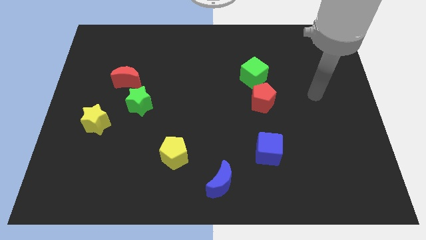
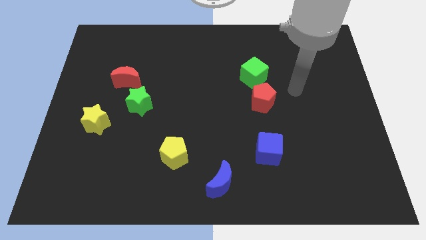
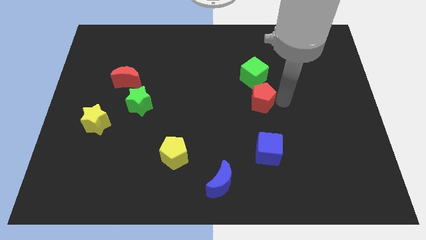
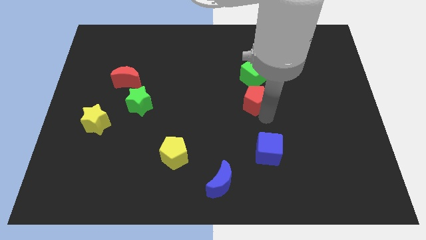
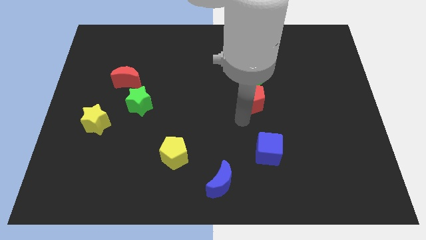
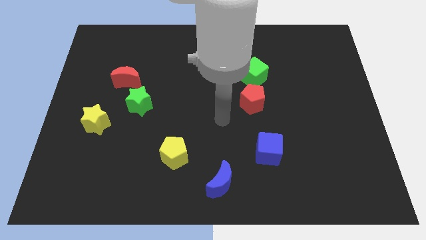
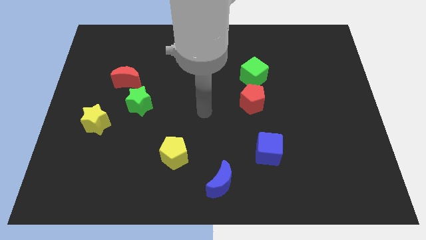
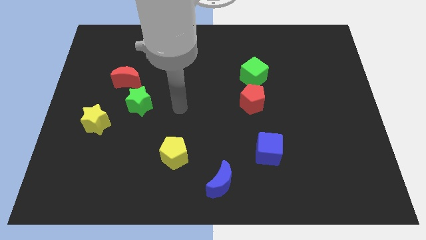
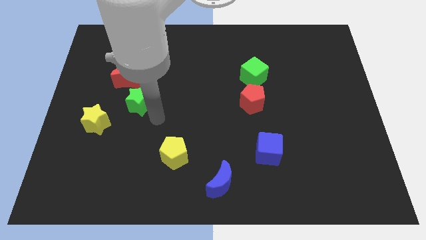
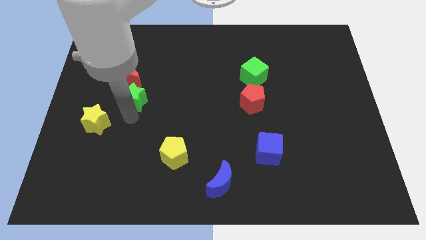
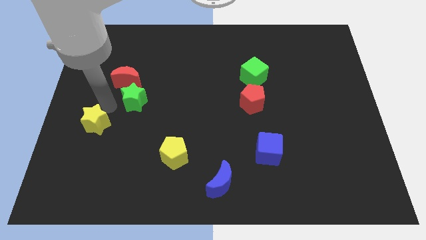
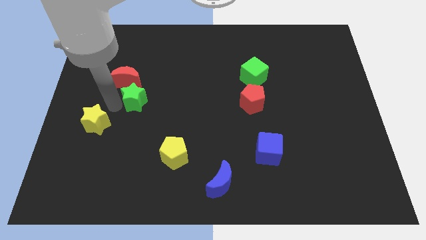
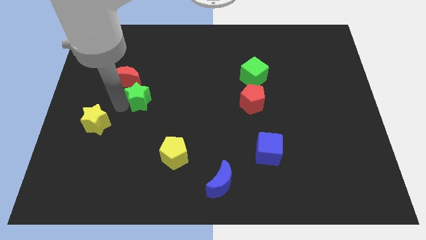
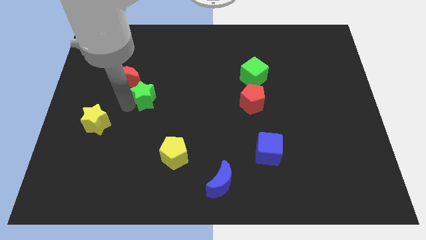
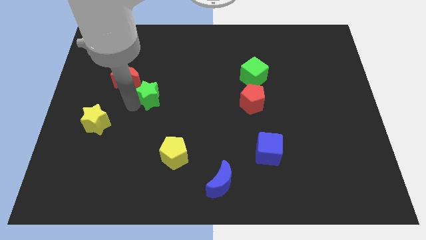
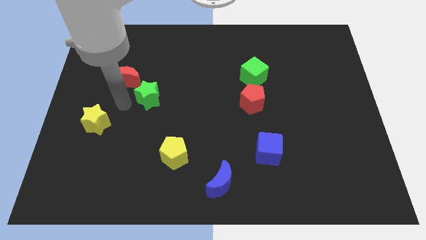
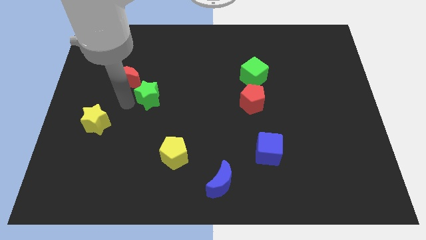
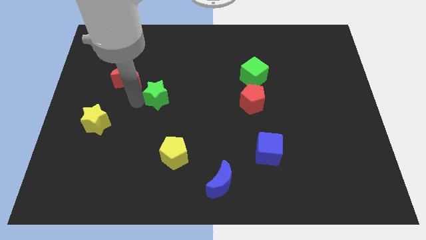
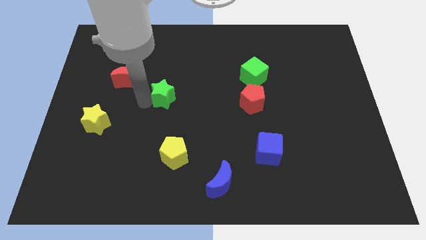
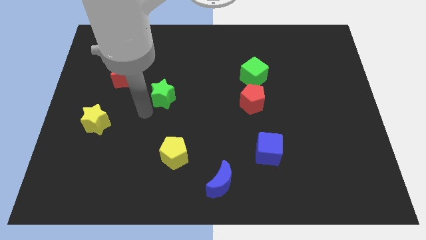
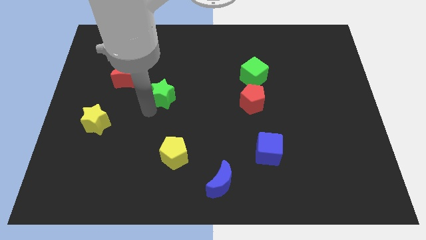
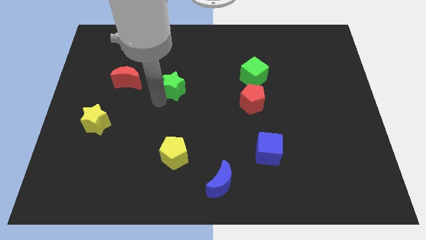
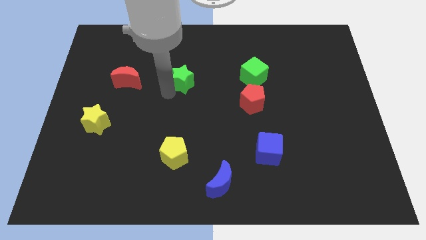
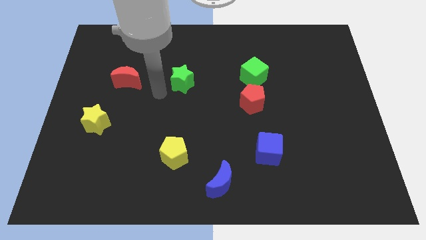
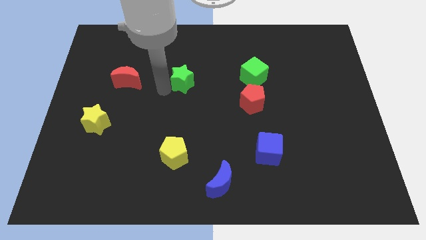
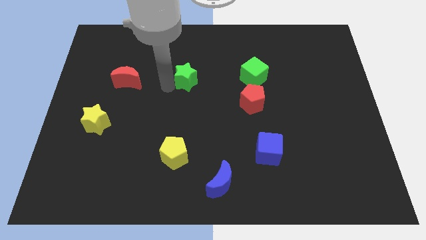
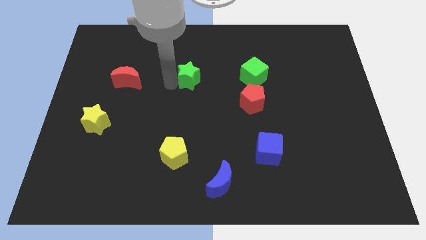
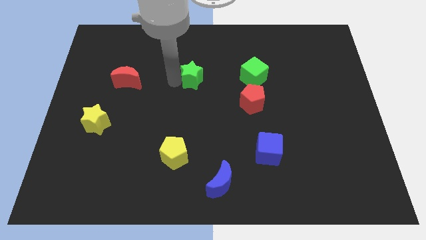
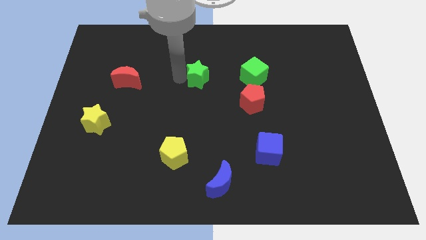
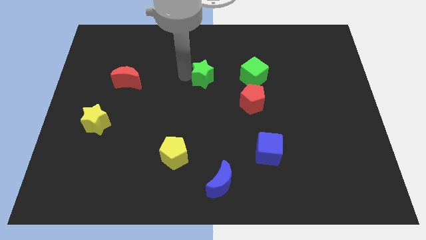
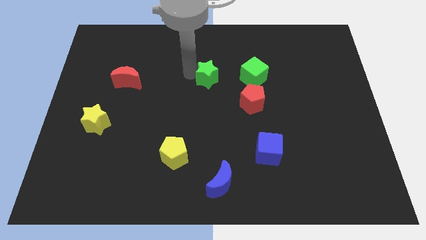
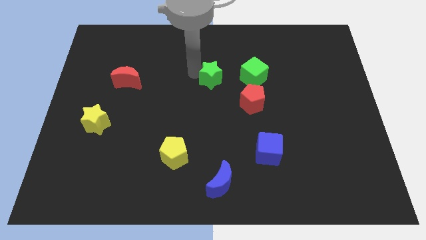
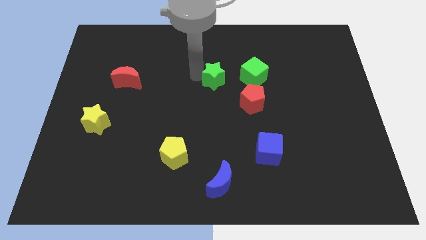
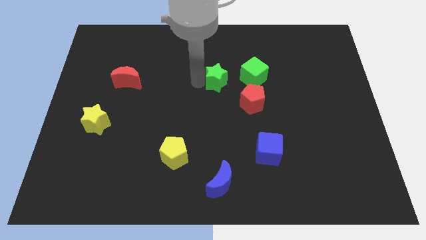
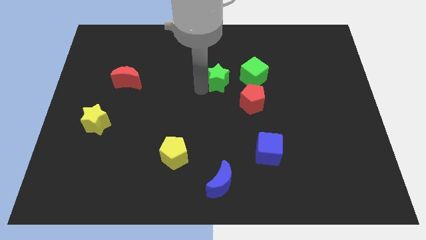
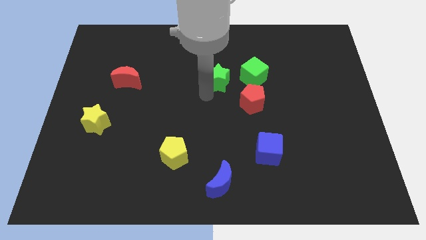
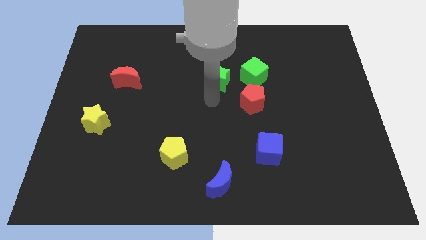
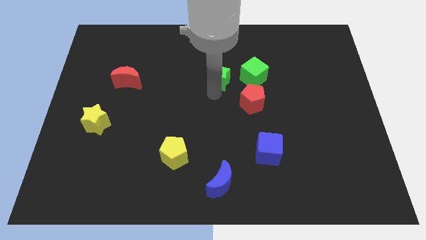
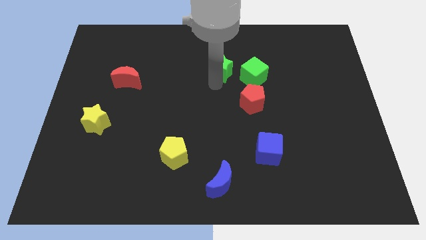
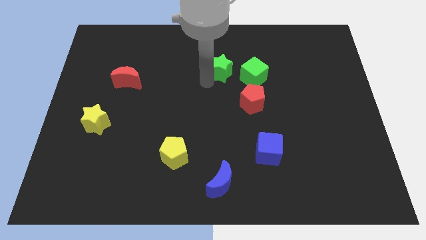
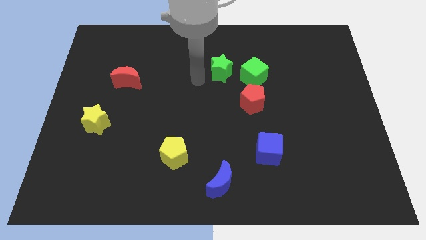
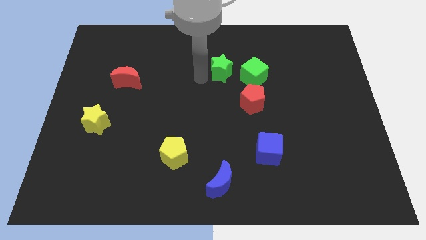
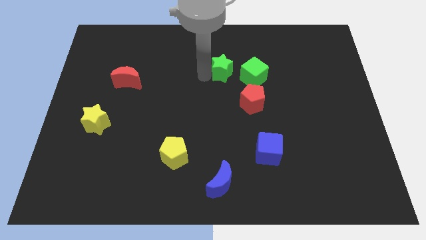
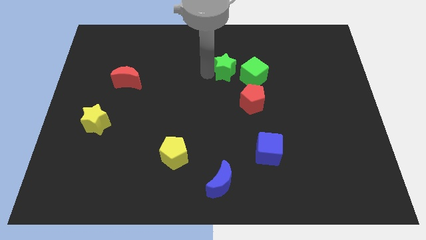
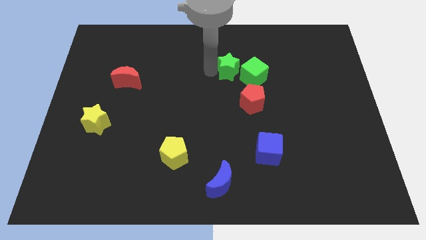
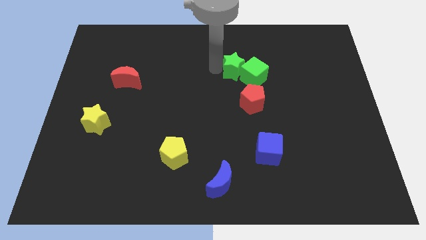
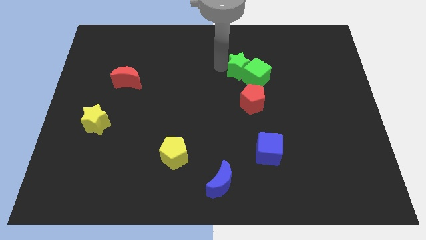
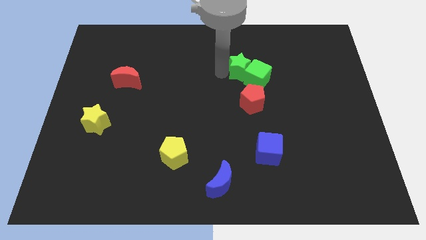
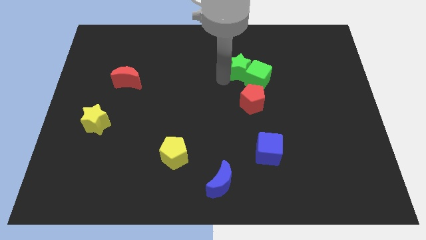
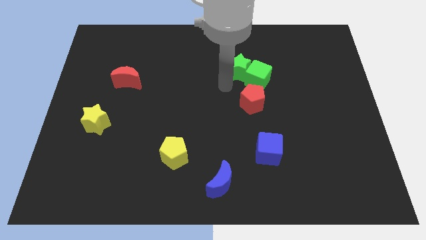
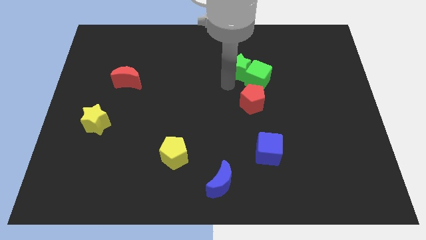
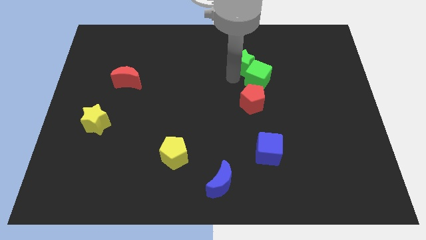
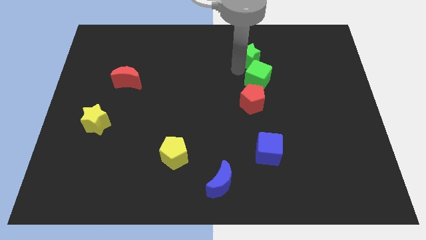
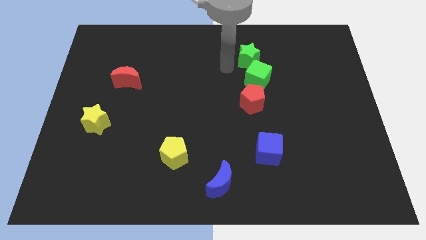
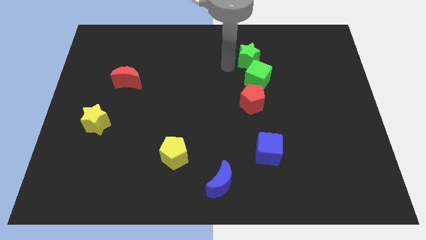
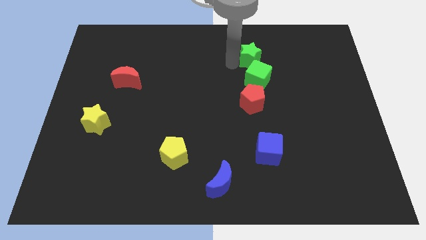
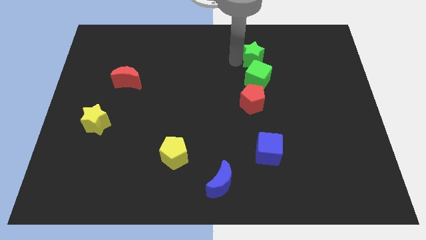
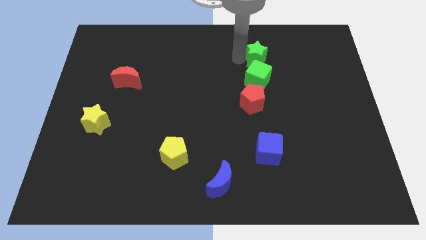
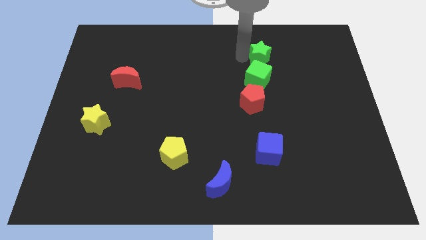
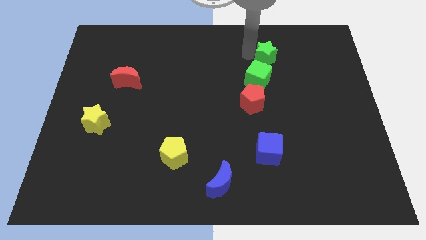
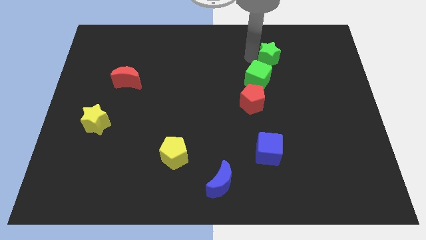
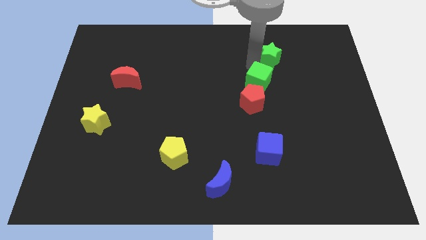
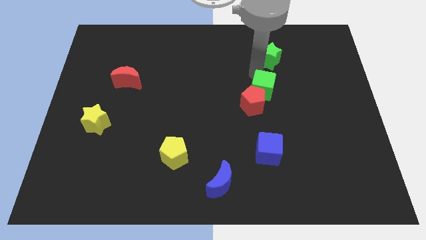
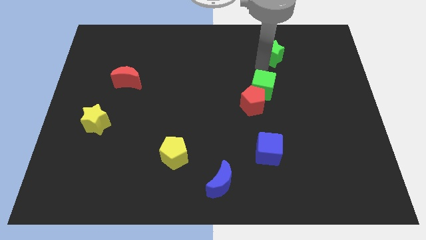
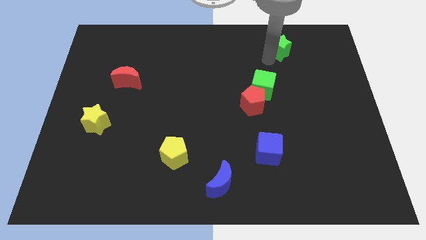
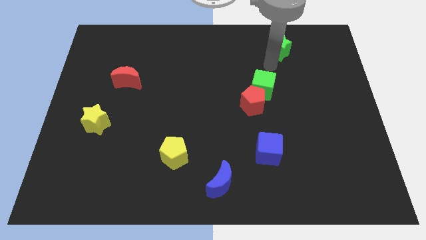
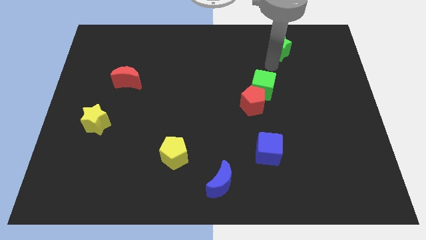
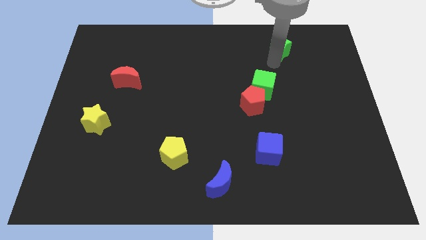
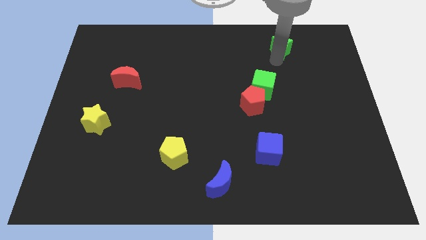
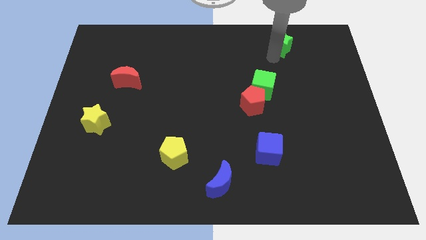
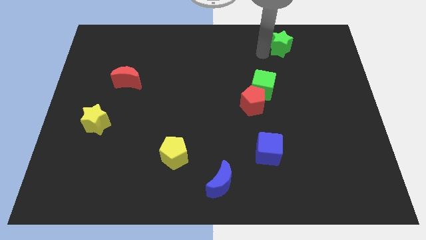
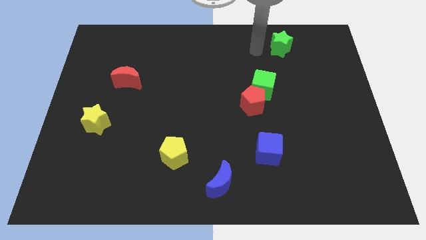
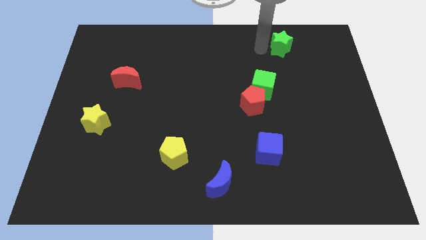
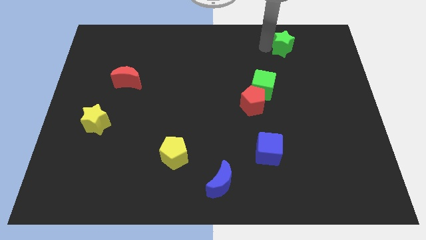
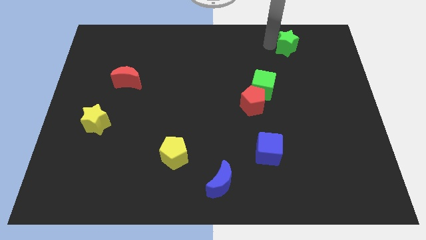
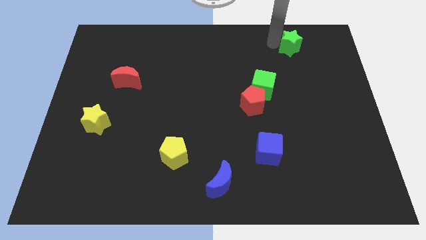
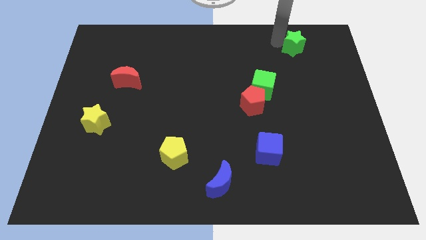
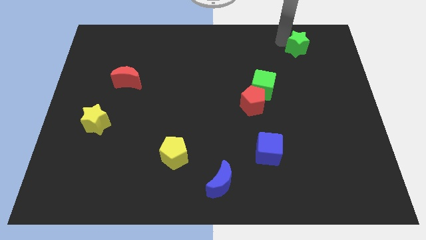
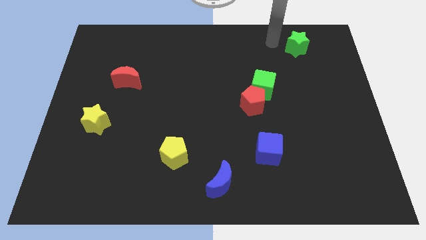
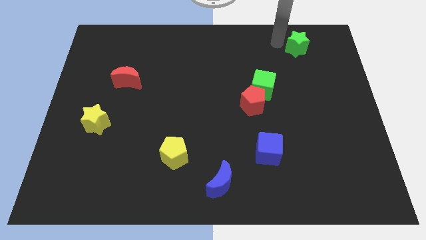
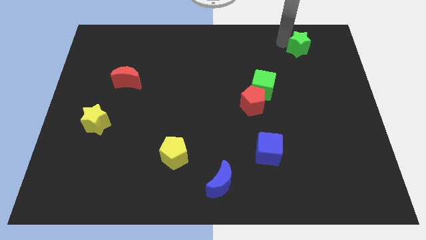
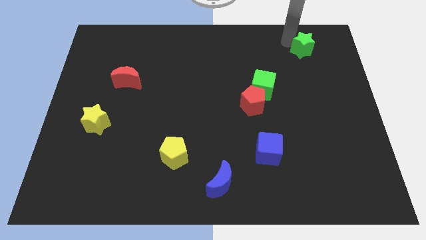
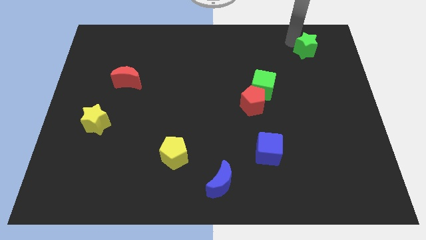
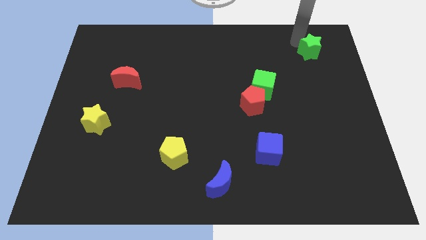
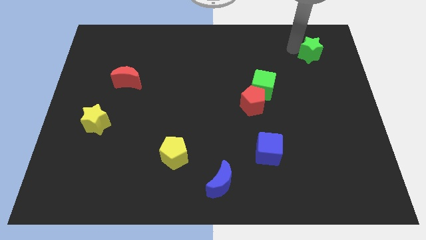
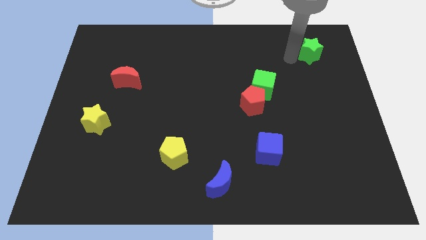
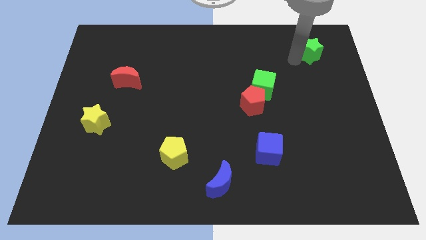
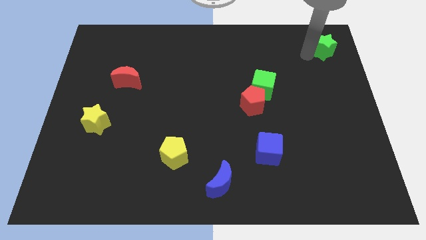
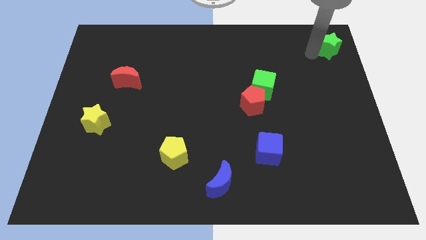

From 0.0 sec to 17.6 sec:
push the green star to the upper right corner
